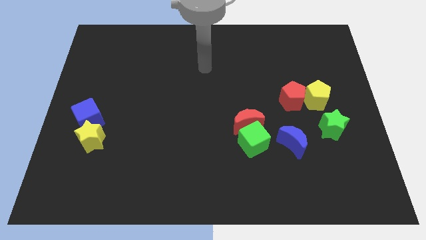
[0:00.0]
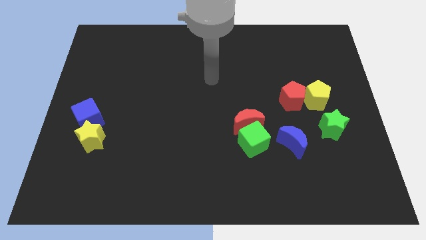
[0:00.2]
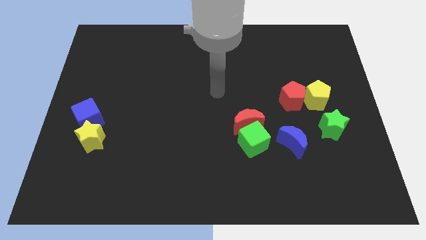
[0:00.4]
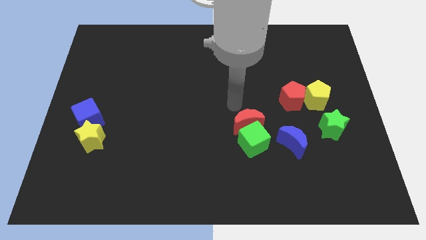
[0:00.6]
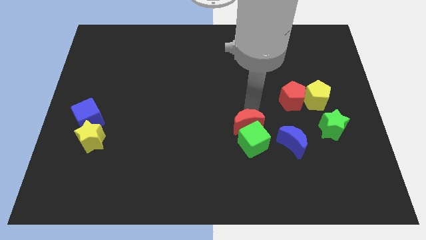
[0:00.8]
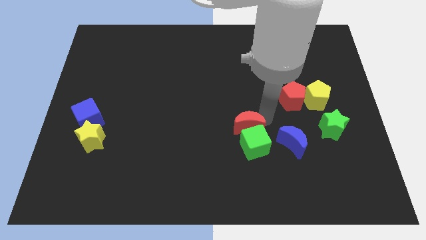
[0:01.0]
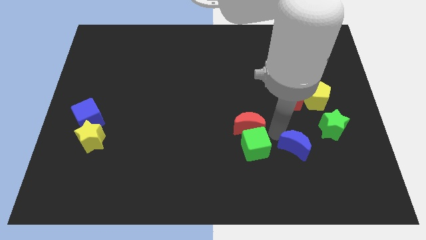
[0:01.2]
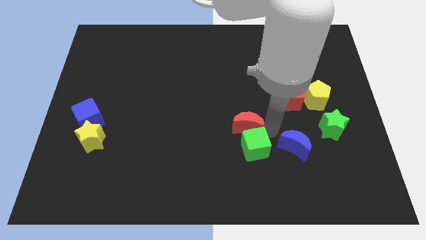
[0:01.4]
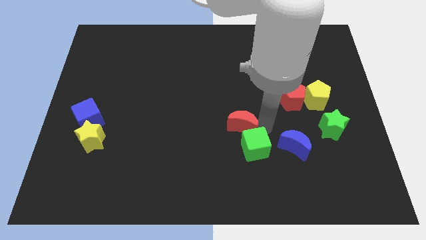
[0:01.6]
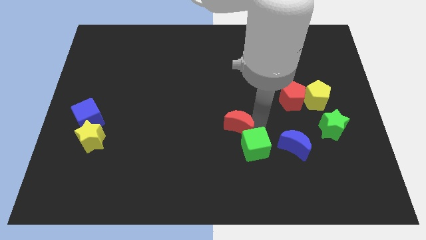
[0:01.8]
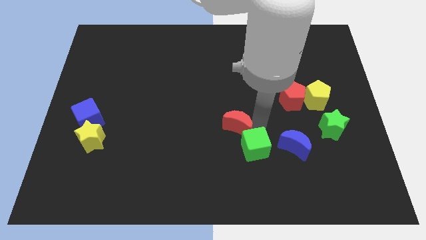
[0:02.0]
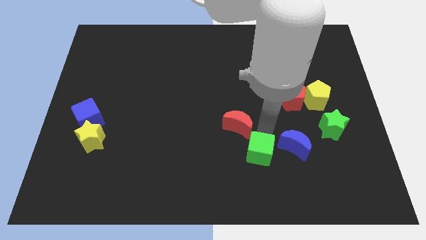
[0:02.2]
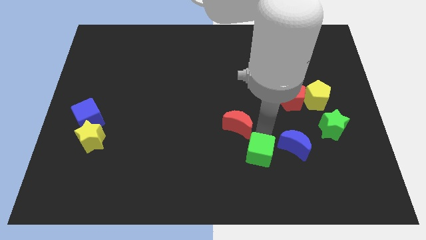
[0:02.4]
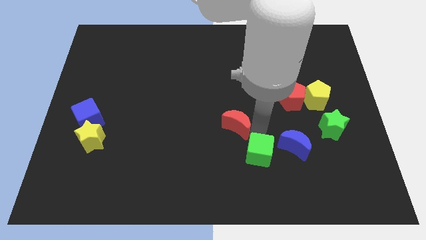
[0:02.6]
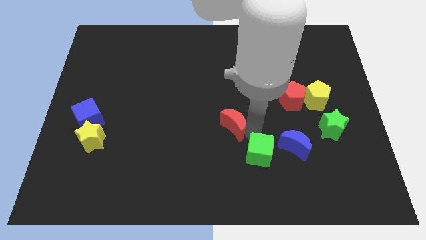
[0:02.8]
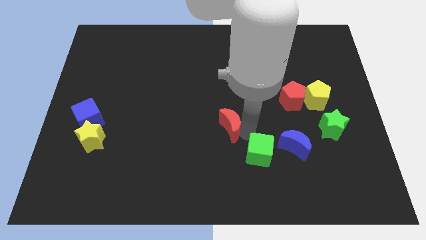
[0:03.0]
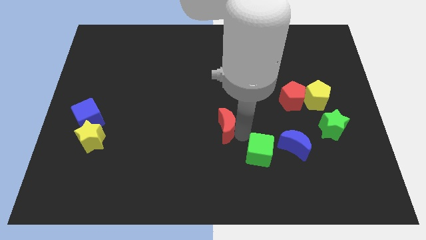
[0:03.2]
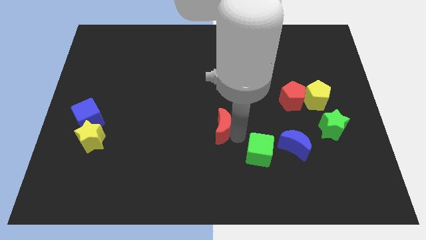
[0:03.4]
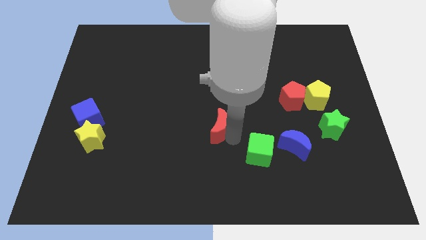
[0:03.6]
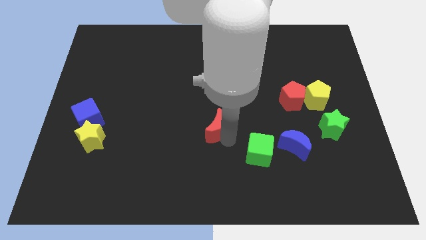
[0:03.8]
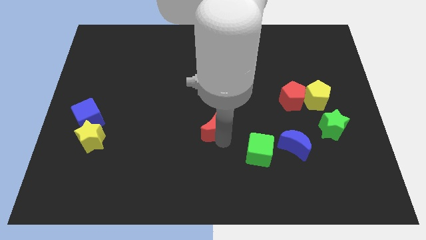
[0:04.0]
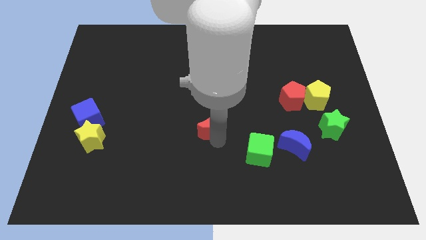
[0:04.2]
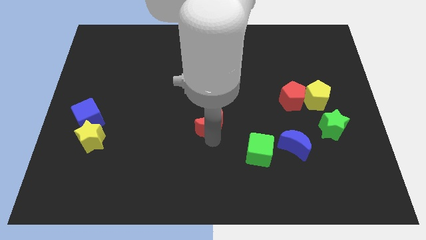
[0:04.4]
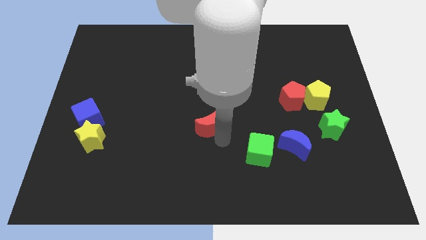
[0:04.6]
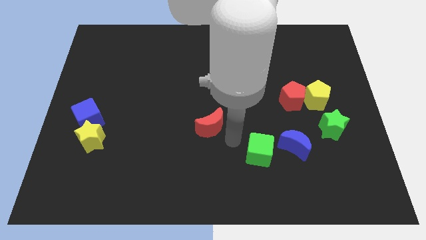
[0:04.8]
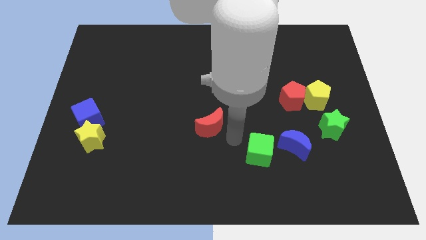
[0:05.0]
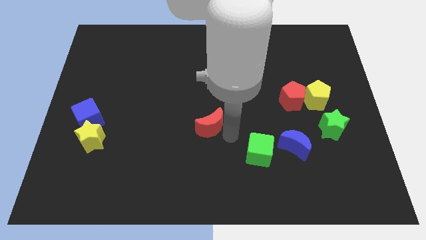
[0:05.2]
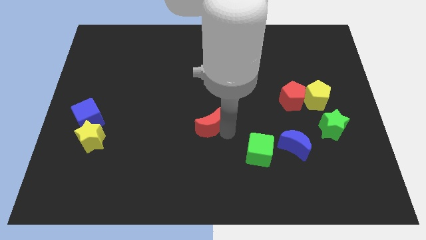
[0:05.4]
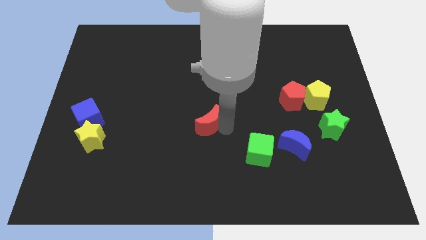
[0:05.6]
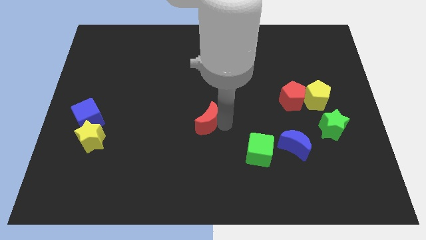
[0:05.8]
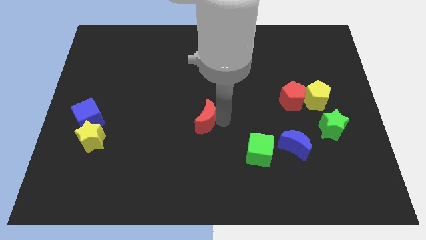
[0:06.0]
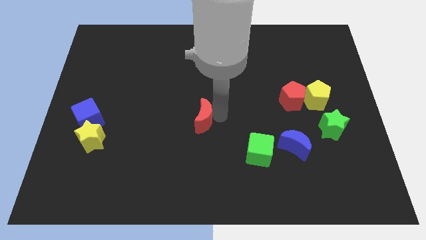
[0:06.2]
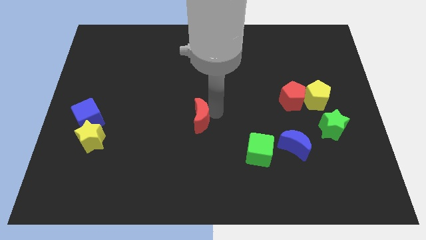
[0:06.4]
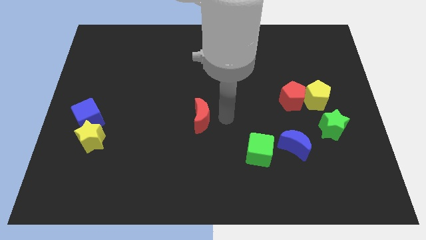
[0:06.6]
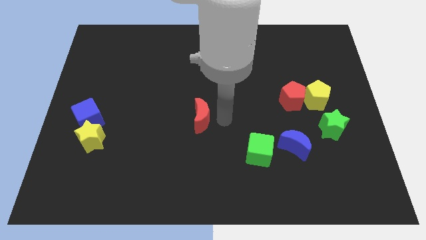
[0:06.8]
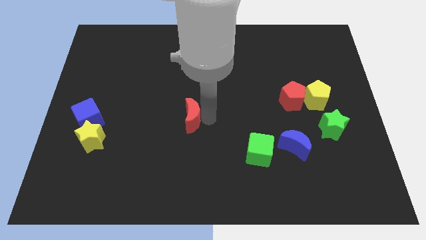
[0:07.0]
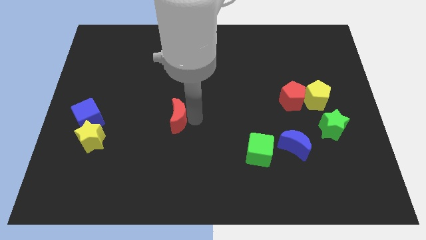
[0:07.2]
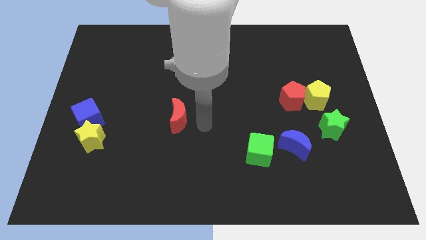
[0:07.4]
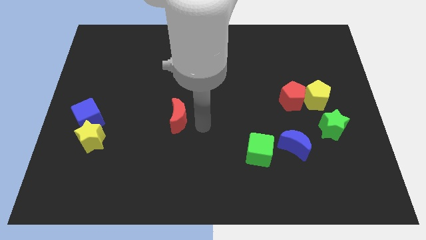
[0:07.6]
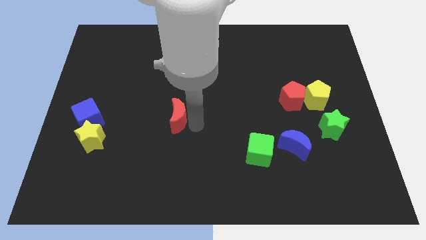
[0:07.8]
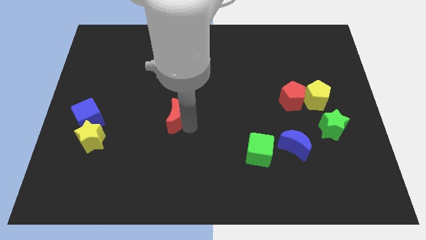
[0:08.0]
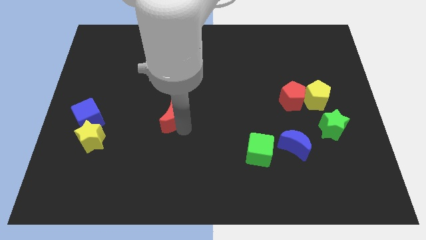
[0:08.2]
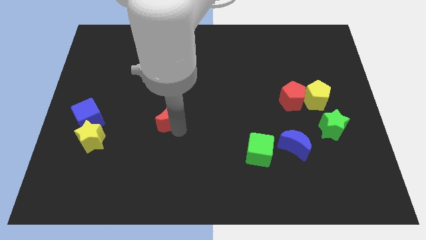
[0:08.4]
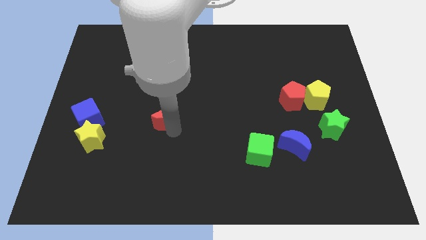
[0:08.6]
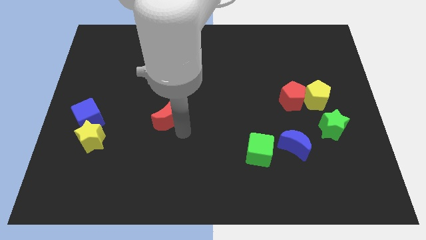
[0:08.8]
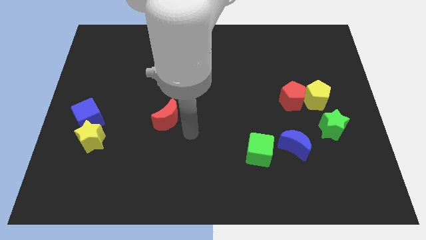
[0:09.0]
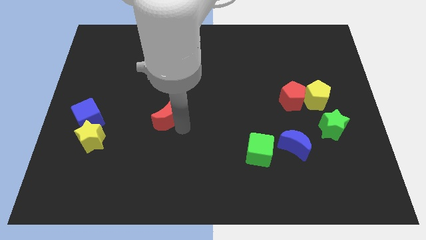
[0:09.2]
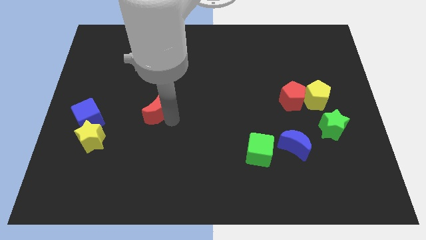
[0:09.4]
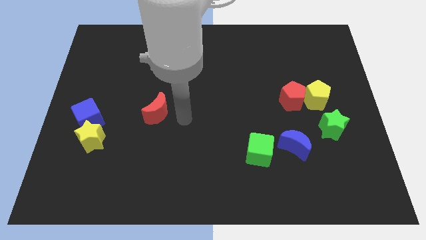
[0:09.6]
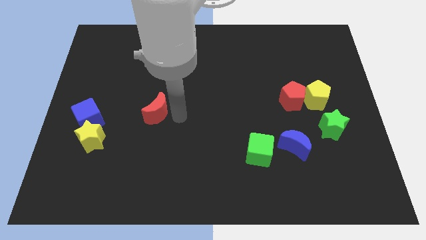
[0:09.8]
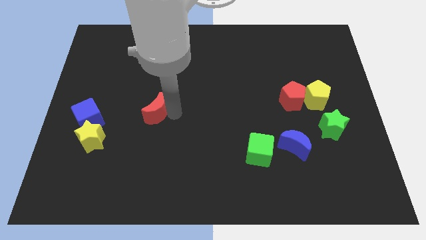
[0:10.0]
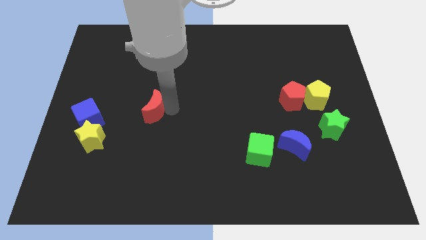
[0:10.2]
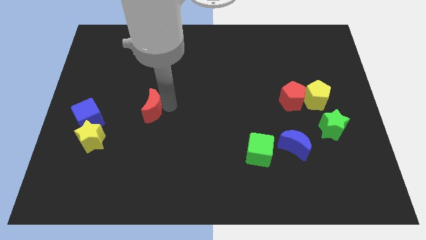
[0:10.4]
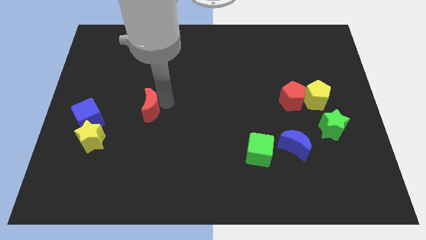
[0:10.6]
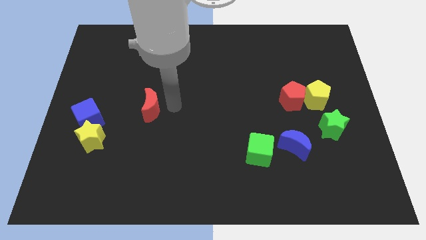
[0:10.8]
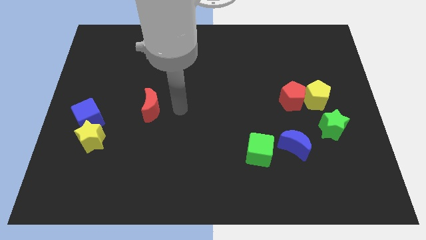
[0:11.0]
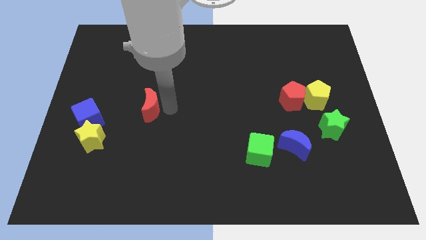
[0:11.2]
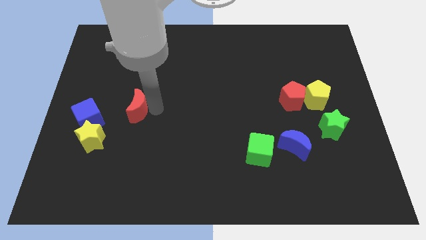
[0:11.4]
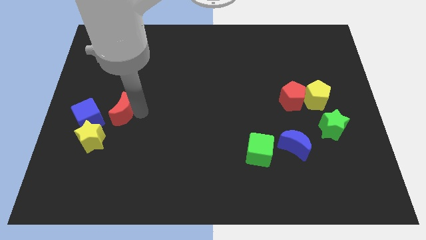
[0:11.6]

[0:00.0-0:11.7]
move the red moon to the top right of the blue cube

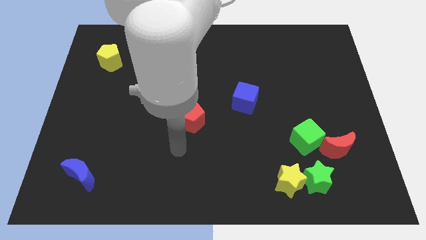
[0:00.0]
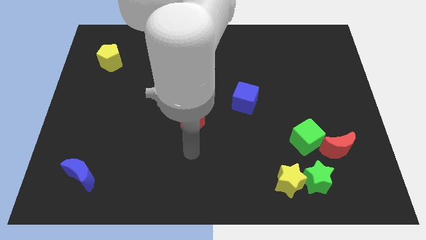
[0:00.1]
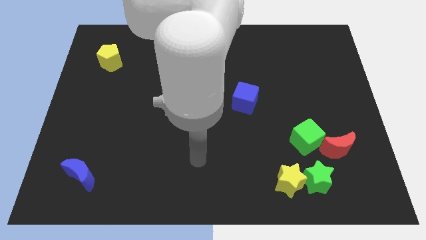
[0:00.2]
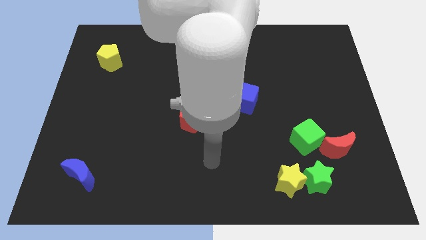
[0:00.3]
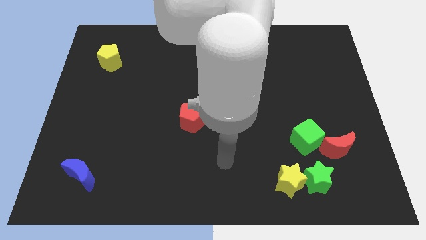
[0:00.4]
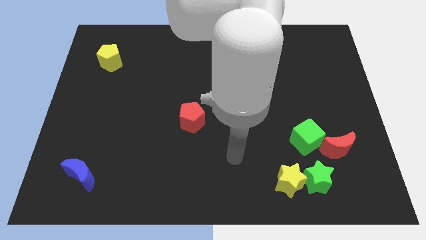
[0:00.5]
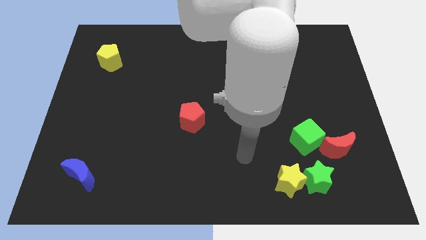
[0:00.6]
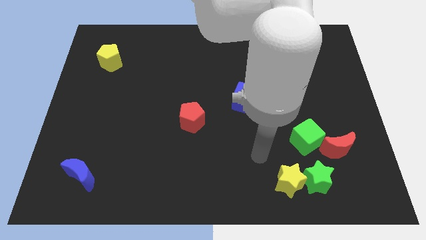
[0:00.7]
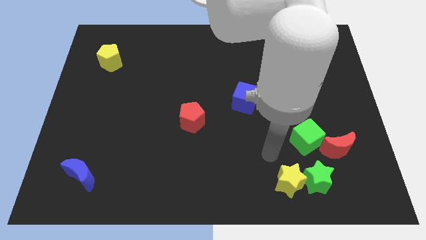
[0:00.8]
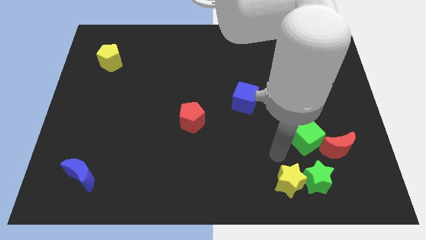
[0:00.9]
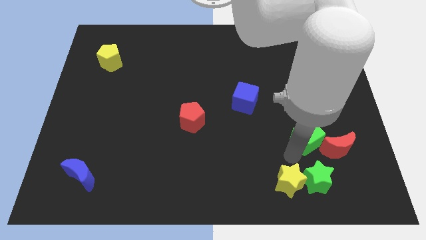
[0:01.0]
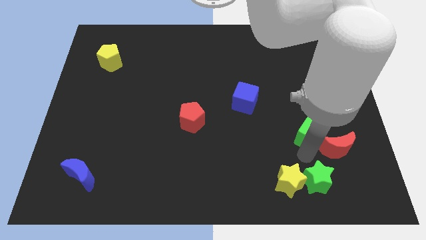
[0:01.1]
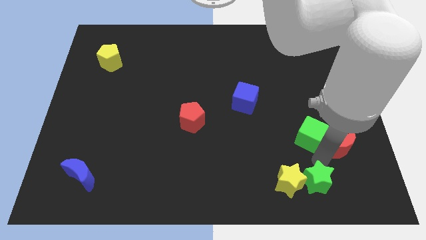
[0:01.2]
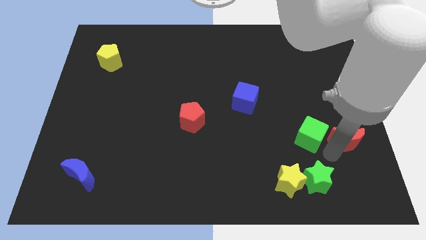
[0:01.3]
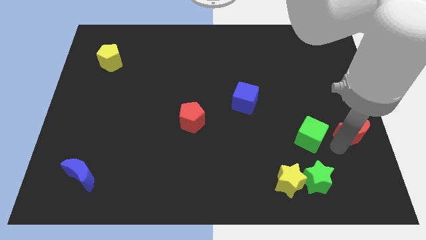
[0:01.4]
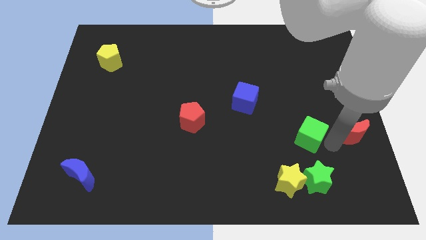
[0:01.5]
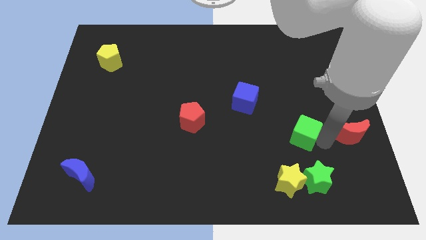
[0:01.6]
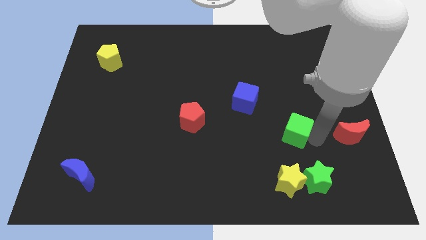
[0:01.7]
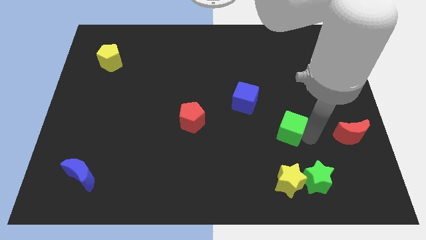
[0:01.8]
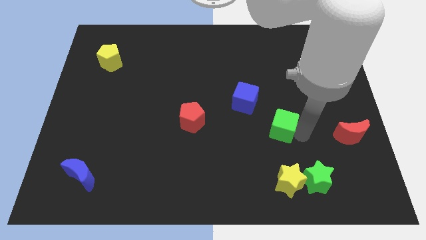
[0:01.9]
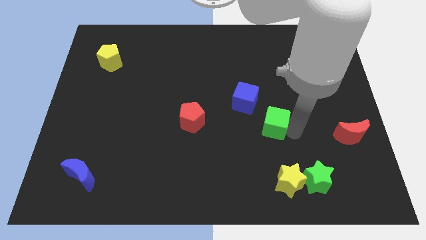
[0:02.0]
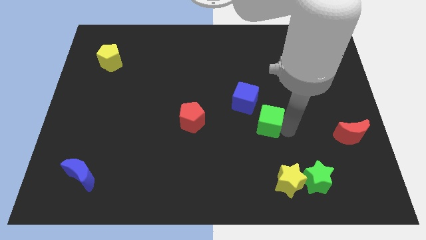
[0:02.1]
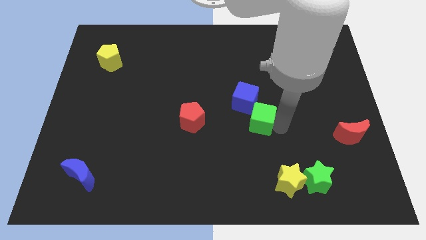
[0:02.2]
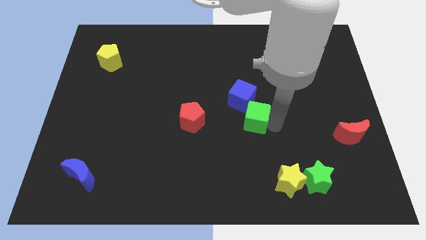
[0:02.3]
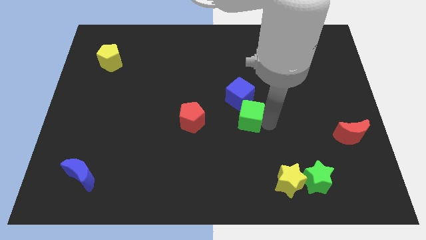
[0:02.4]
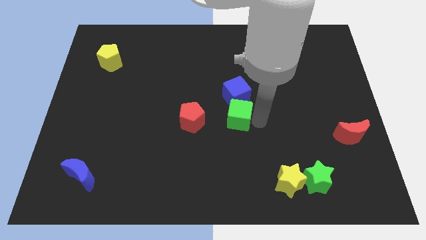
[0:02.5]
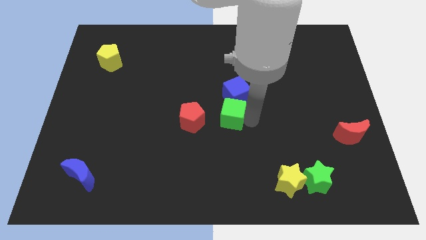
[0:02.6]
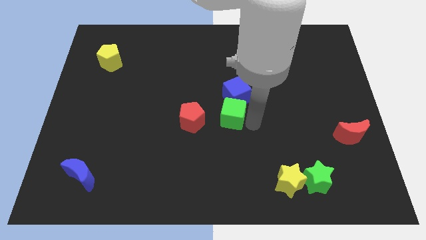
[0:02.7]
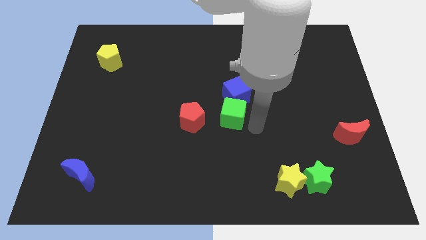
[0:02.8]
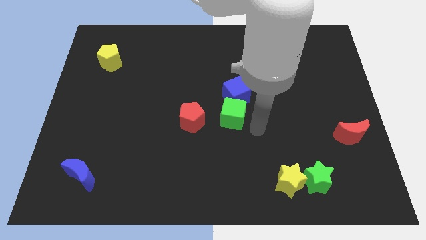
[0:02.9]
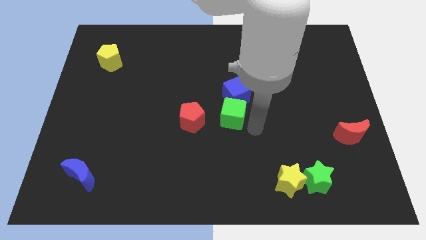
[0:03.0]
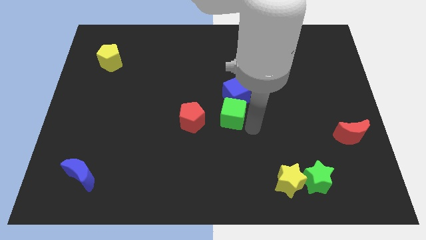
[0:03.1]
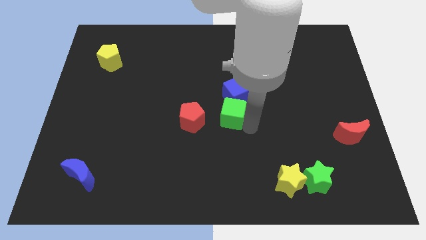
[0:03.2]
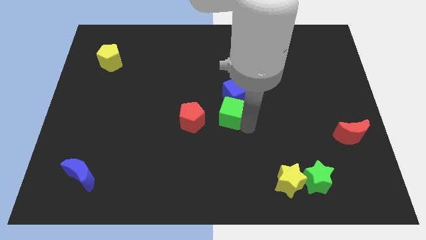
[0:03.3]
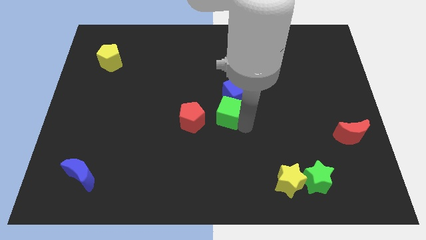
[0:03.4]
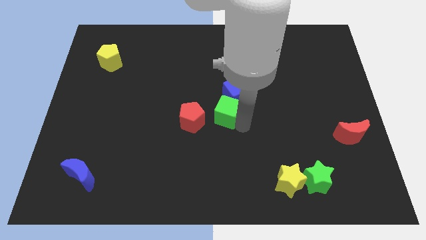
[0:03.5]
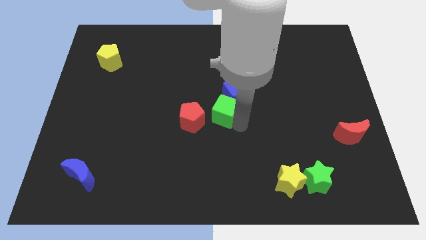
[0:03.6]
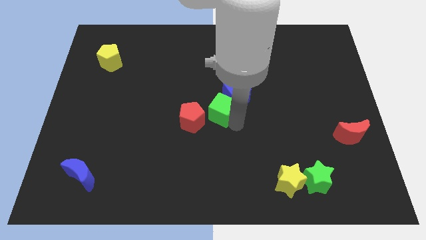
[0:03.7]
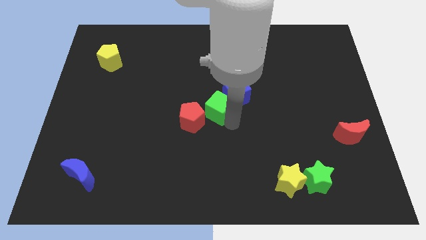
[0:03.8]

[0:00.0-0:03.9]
slide the green cube just left of the blue cube
